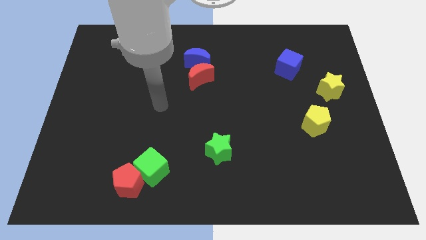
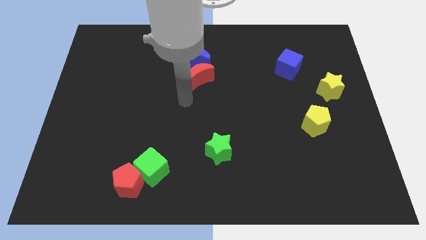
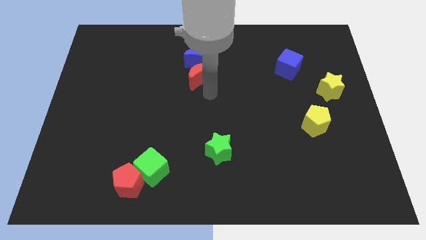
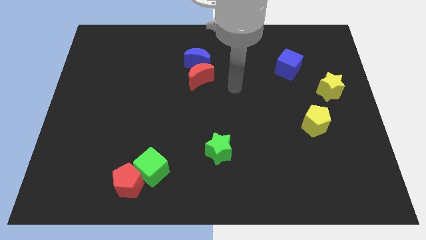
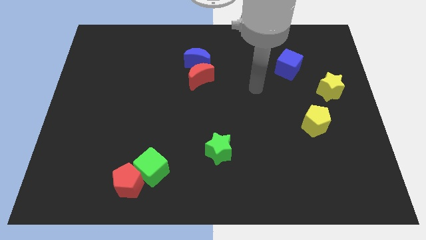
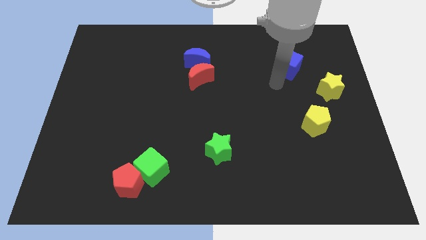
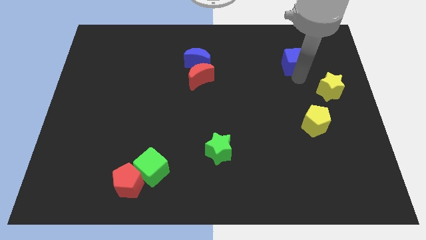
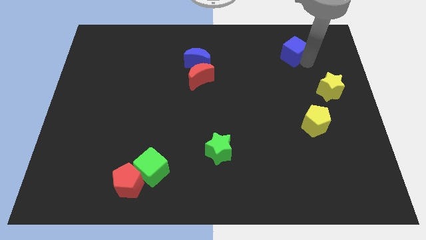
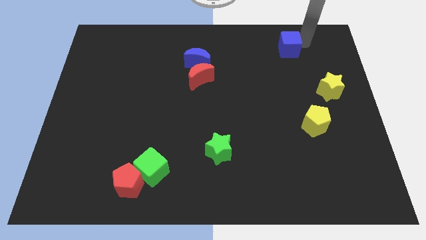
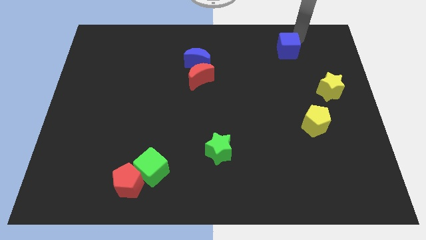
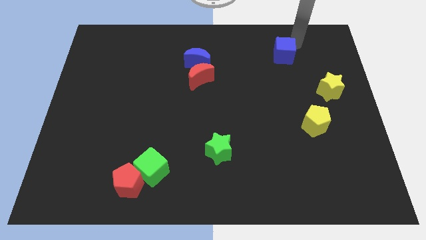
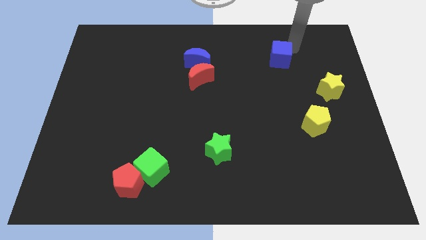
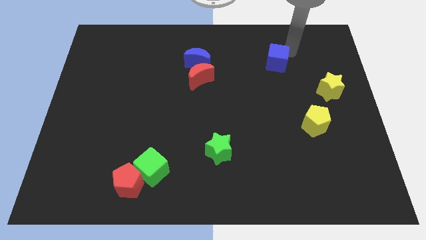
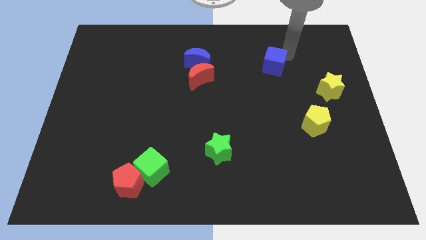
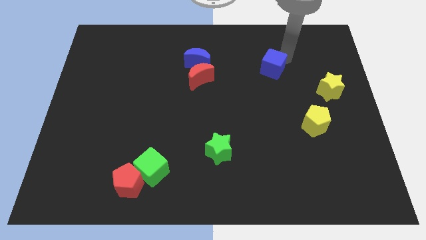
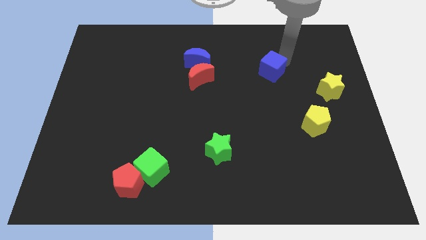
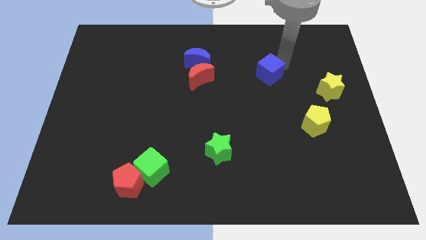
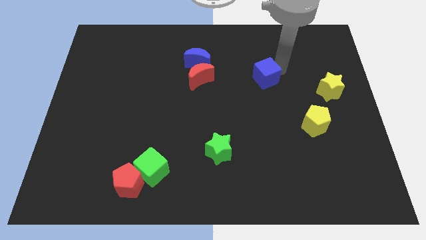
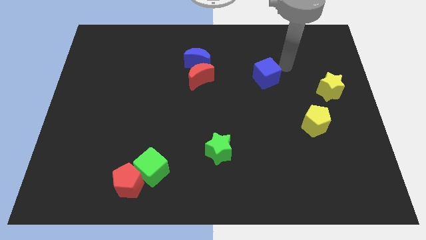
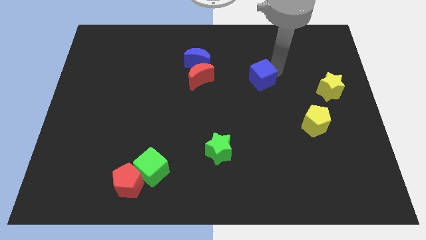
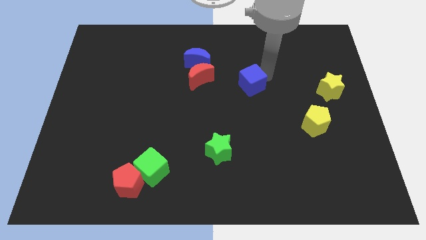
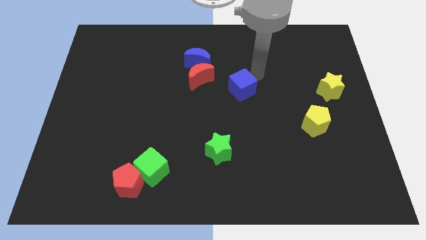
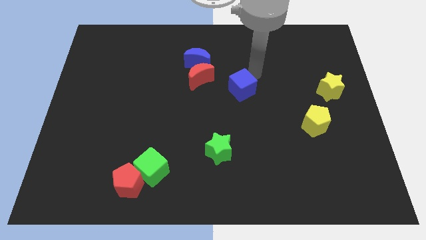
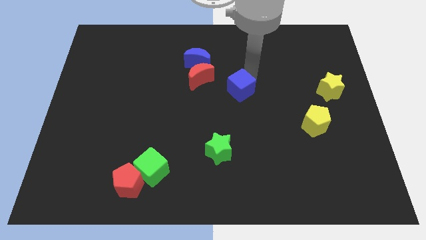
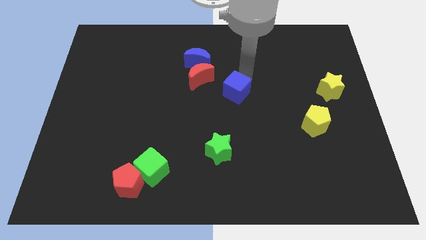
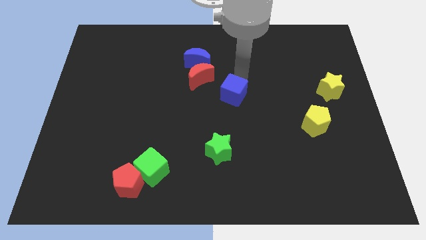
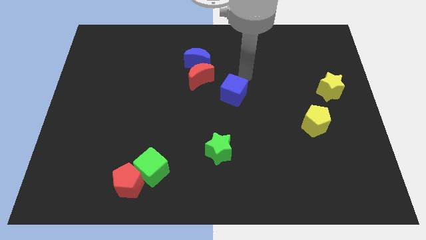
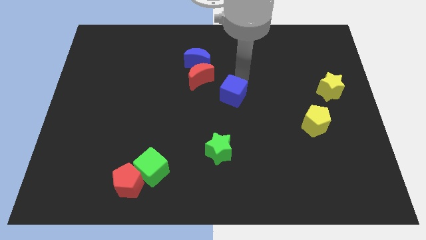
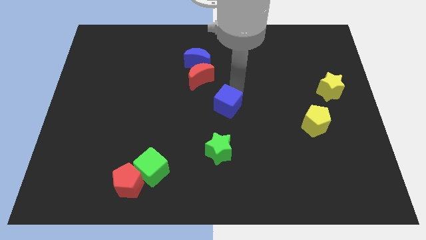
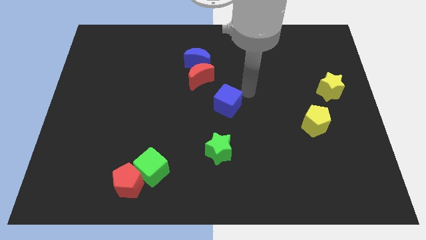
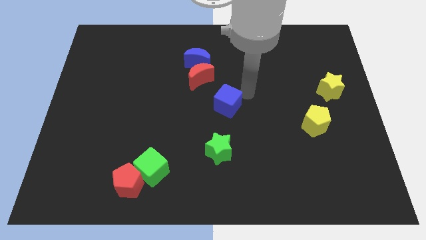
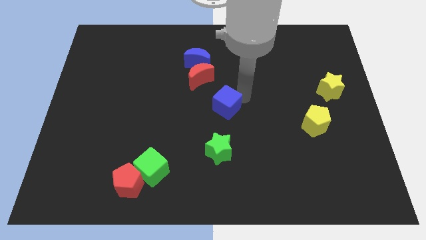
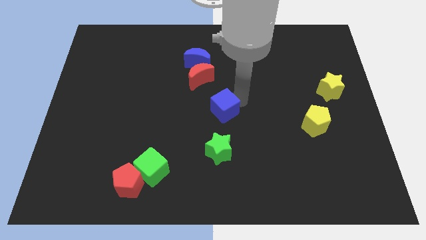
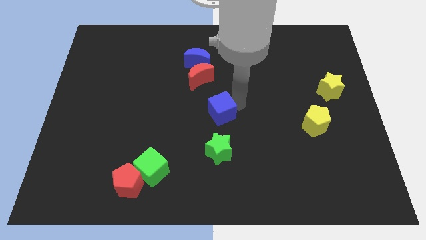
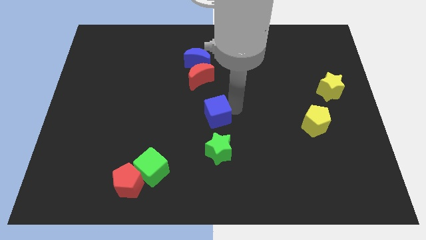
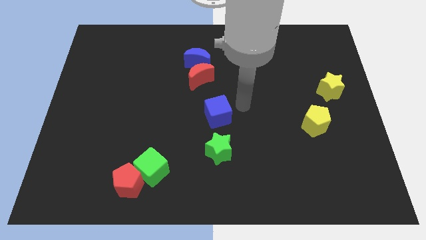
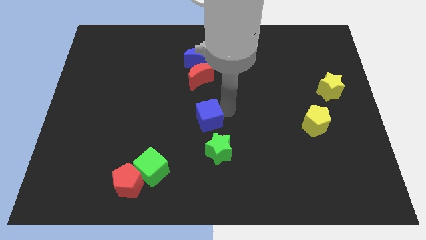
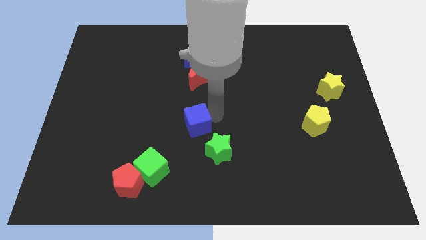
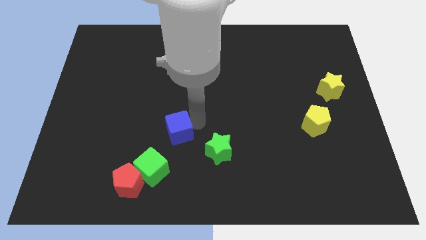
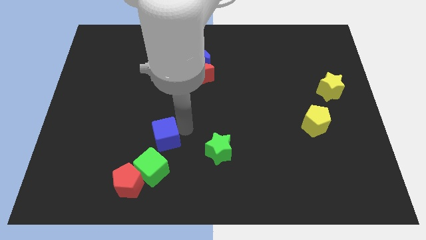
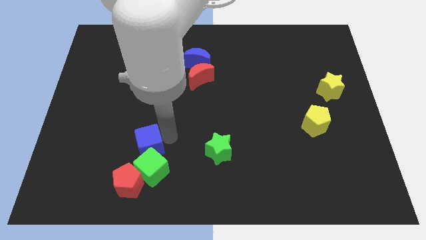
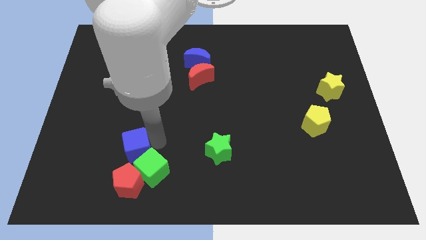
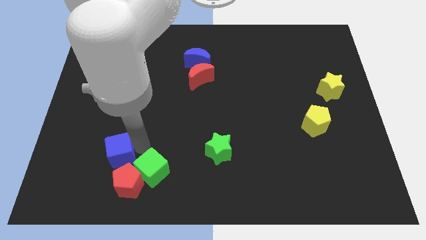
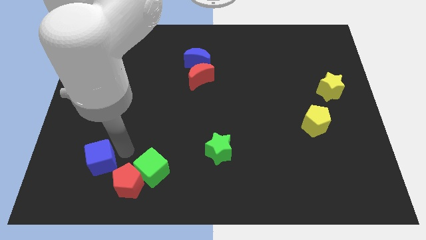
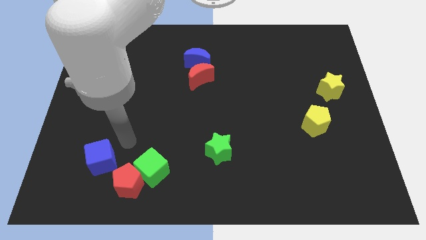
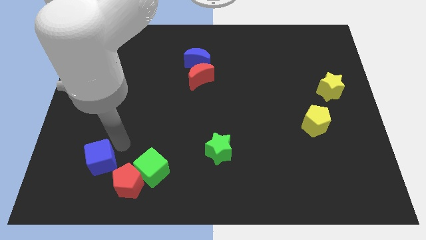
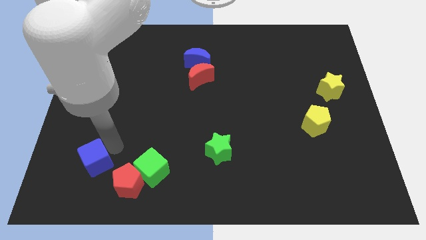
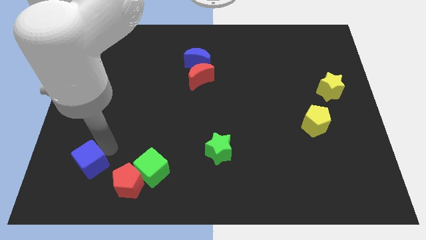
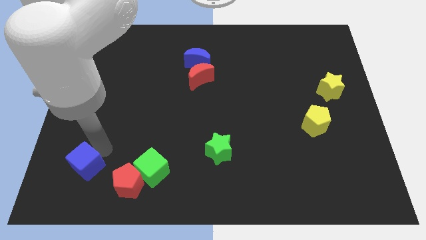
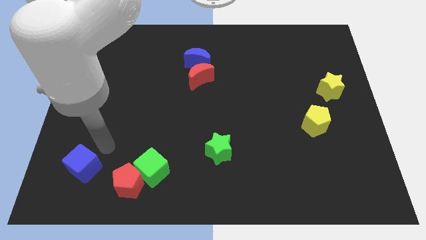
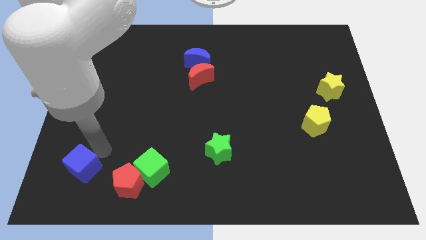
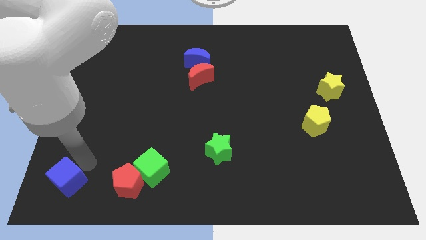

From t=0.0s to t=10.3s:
slide the blue cube to the bottom left of the board
